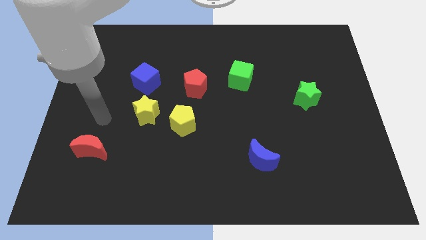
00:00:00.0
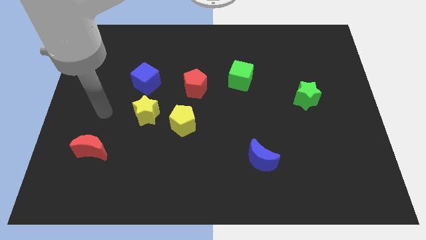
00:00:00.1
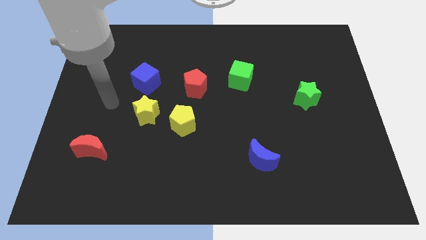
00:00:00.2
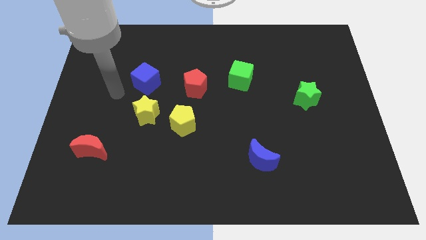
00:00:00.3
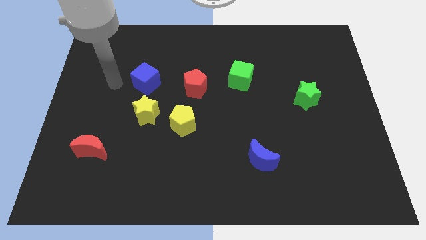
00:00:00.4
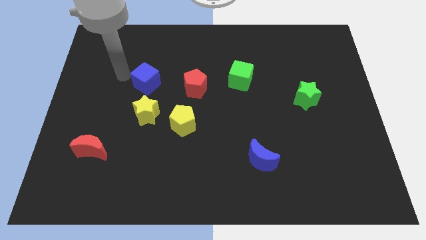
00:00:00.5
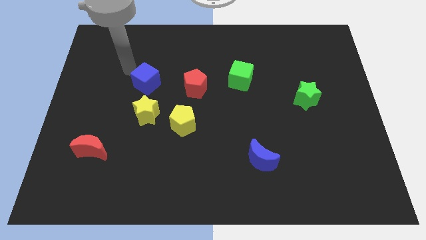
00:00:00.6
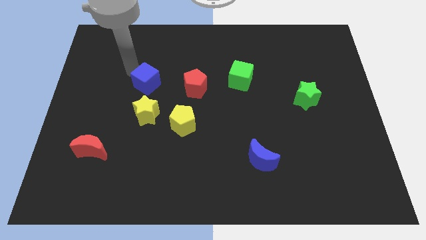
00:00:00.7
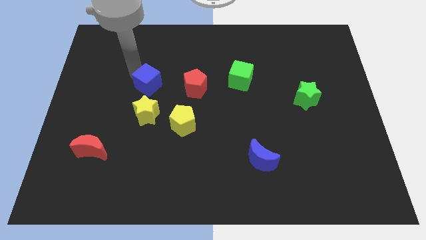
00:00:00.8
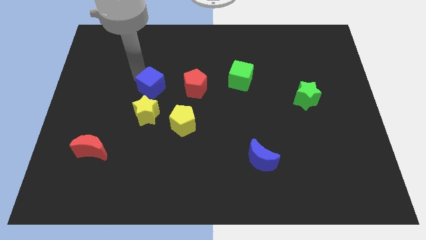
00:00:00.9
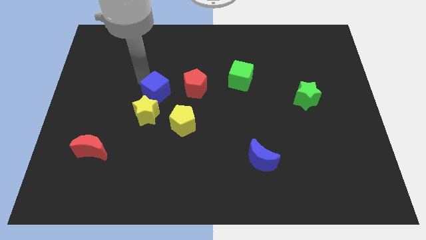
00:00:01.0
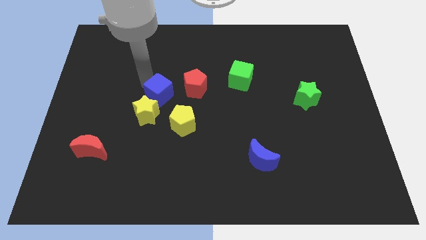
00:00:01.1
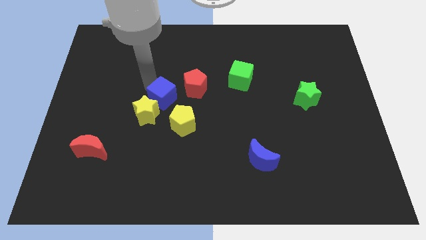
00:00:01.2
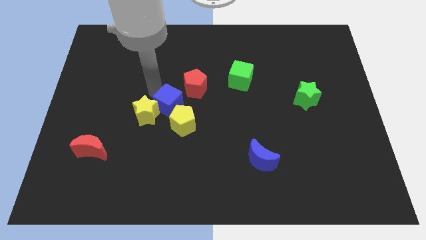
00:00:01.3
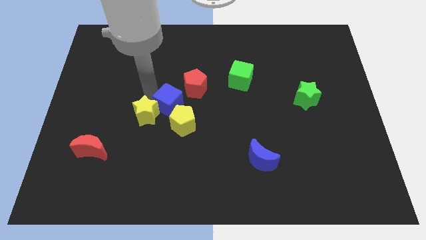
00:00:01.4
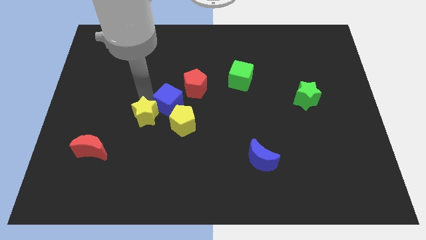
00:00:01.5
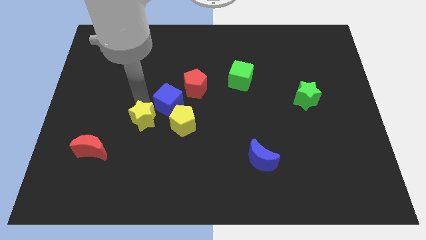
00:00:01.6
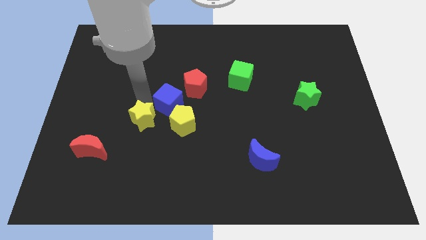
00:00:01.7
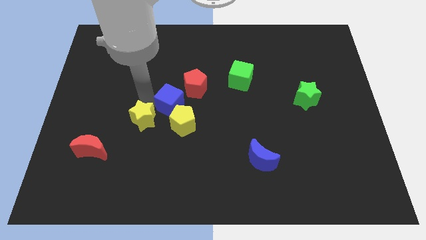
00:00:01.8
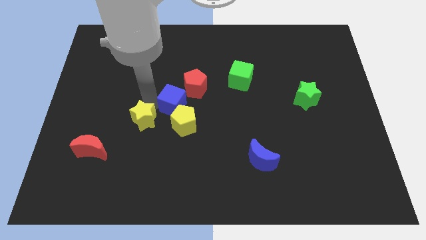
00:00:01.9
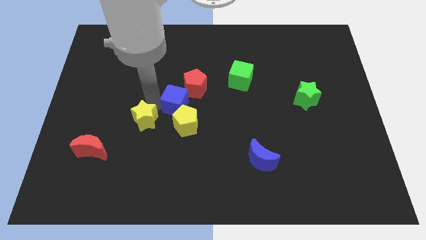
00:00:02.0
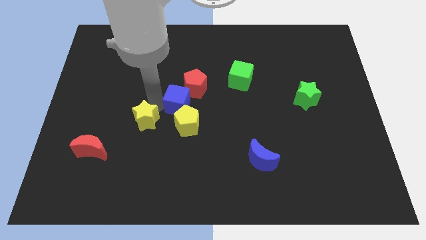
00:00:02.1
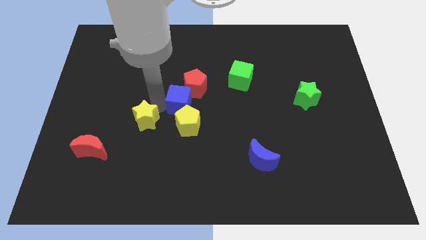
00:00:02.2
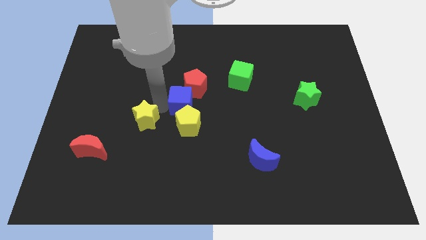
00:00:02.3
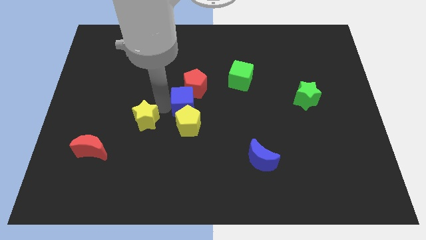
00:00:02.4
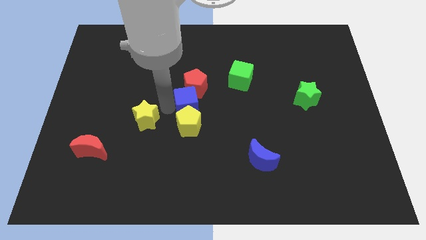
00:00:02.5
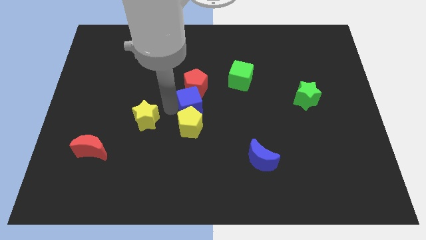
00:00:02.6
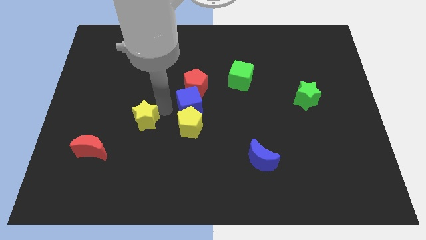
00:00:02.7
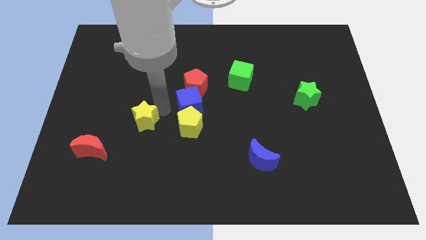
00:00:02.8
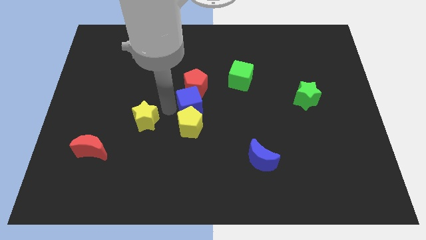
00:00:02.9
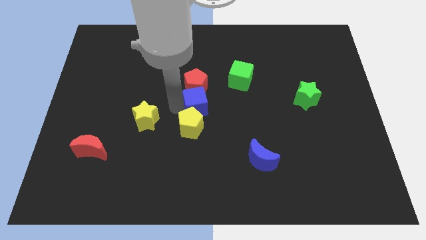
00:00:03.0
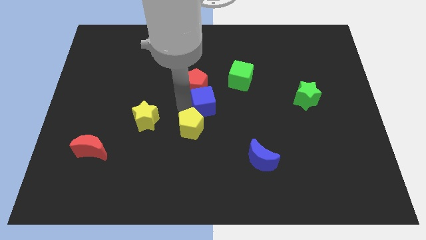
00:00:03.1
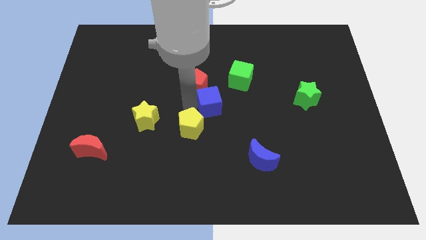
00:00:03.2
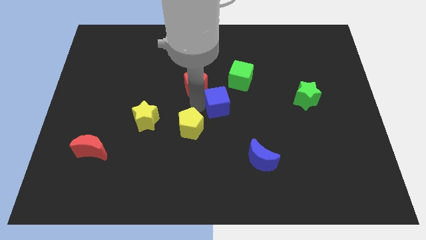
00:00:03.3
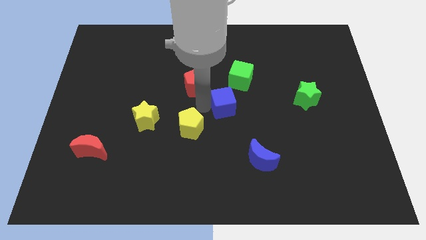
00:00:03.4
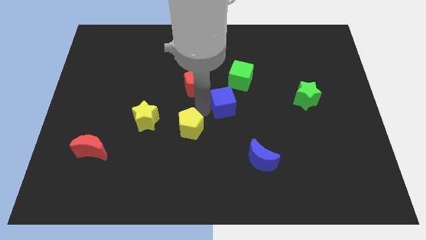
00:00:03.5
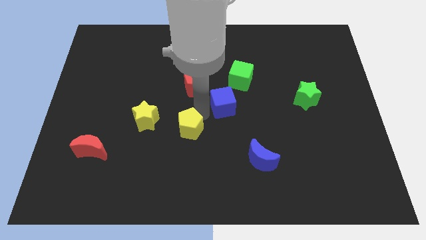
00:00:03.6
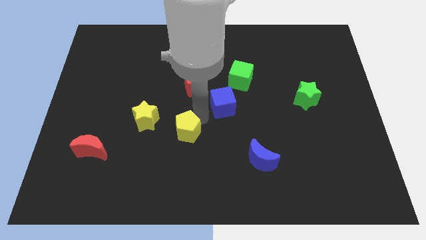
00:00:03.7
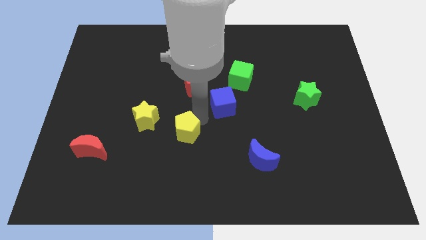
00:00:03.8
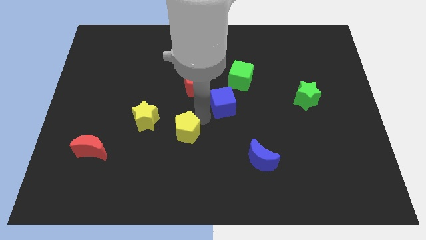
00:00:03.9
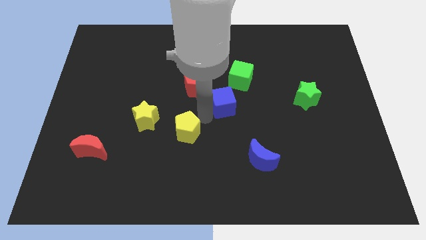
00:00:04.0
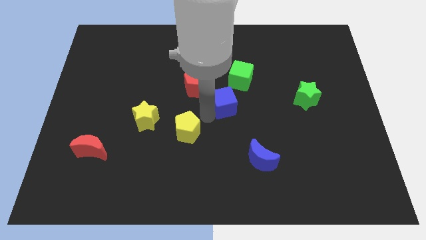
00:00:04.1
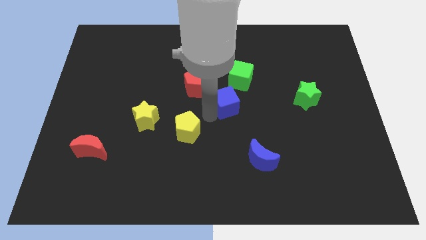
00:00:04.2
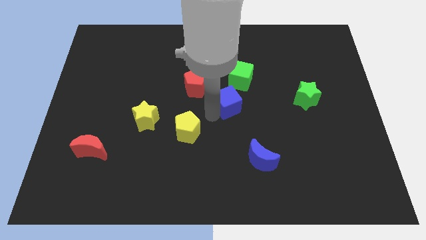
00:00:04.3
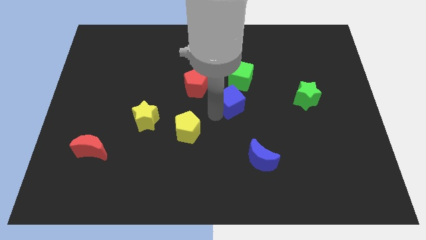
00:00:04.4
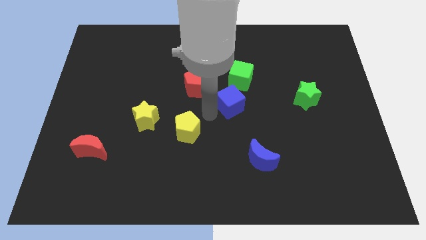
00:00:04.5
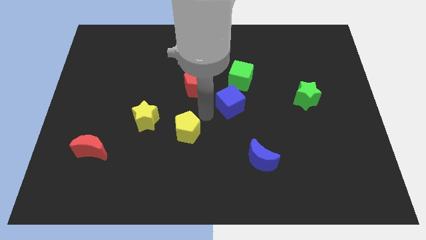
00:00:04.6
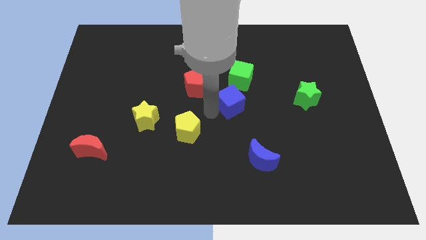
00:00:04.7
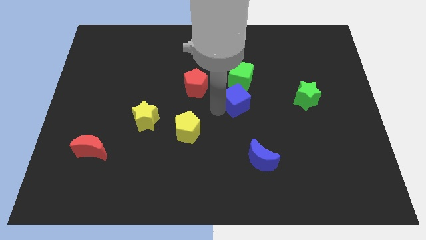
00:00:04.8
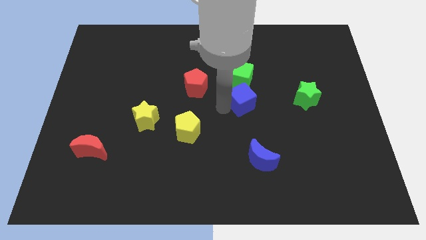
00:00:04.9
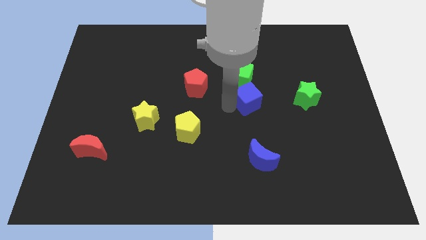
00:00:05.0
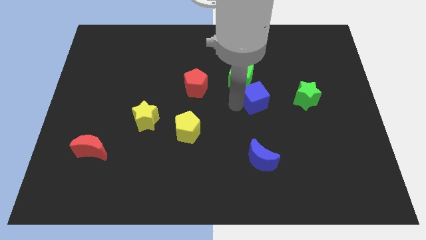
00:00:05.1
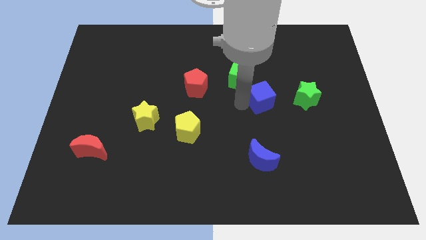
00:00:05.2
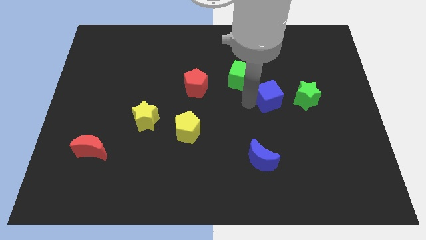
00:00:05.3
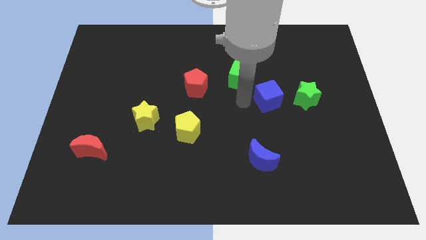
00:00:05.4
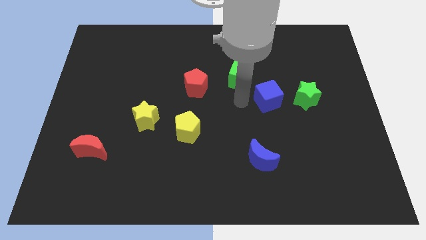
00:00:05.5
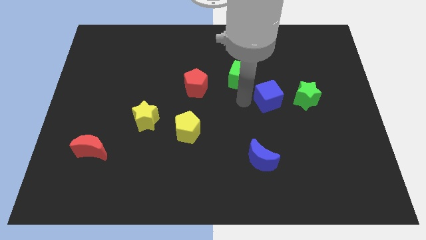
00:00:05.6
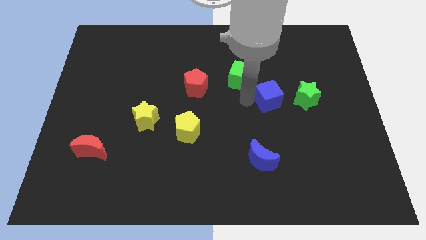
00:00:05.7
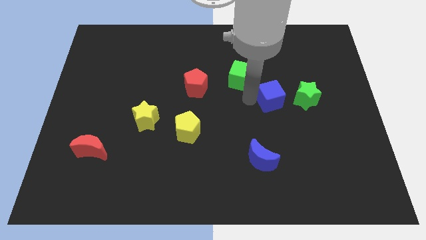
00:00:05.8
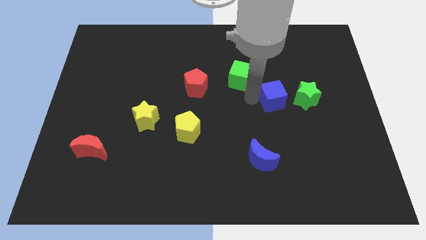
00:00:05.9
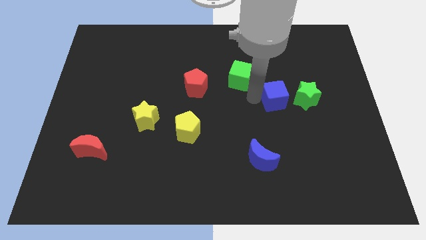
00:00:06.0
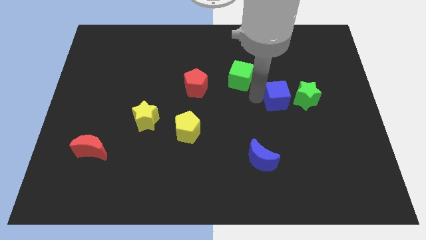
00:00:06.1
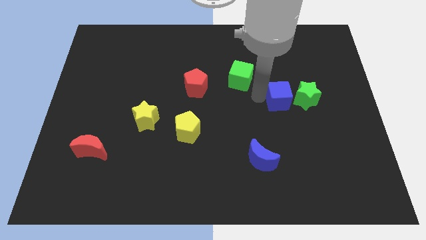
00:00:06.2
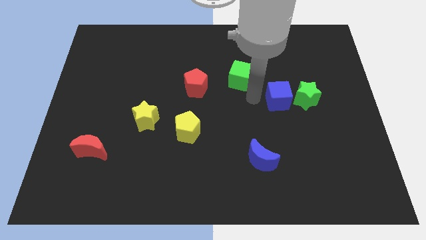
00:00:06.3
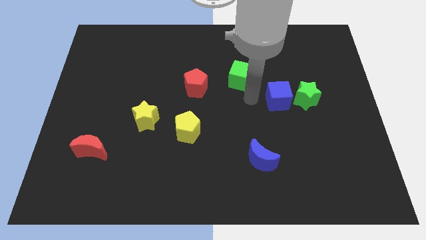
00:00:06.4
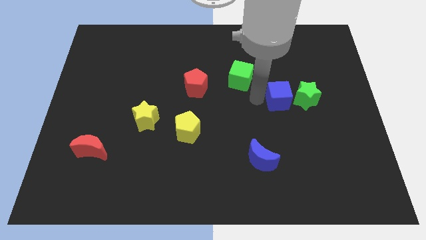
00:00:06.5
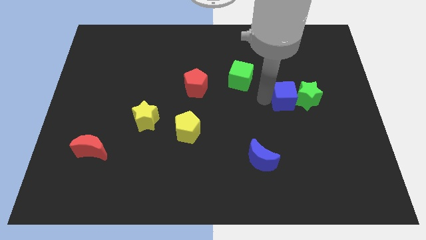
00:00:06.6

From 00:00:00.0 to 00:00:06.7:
put the blue cube close to the green star

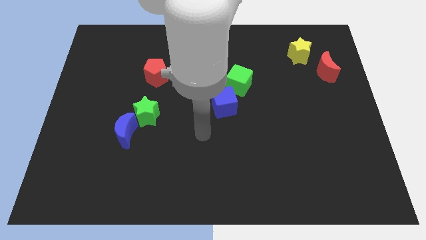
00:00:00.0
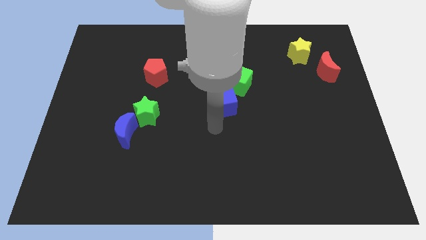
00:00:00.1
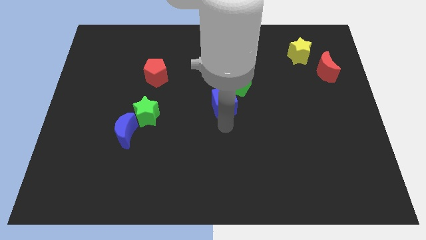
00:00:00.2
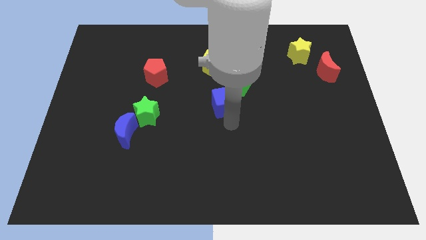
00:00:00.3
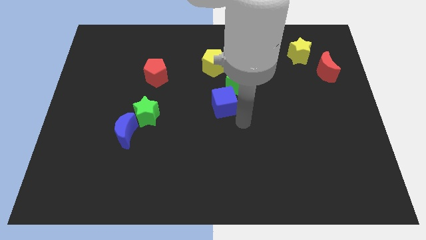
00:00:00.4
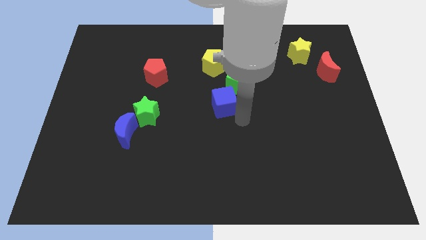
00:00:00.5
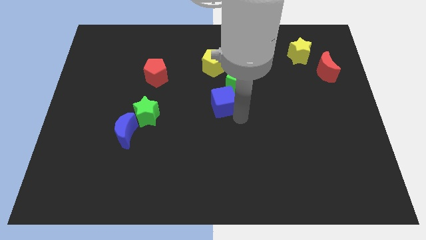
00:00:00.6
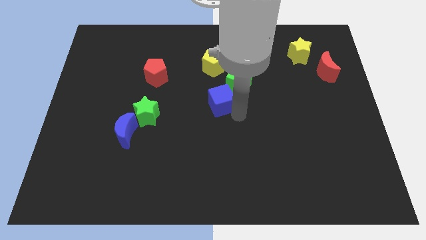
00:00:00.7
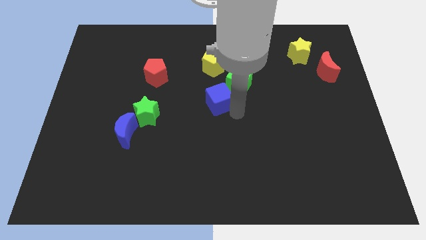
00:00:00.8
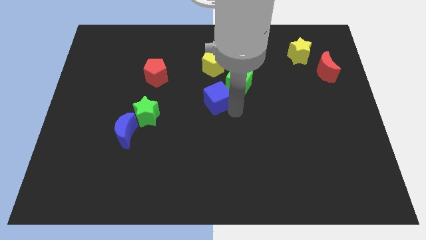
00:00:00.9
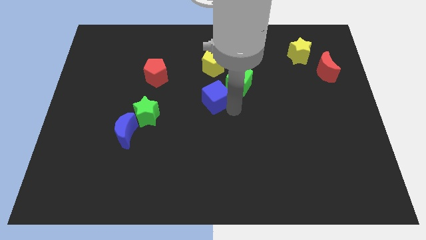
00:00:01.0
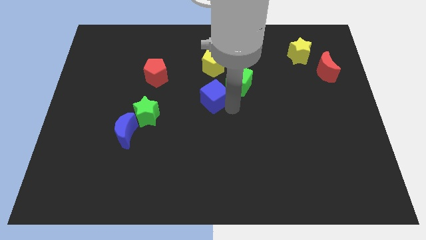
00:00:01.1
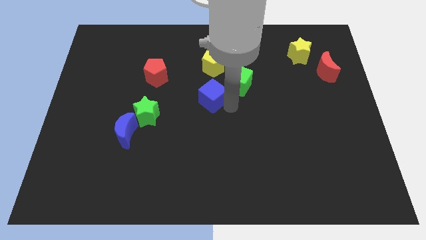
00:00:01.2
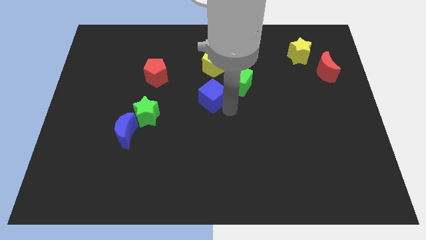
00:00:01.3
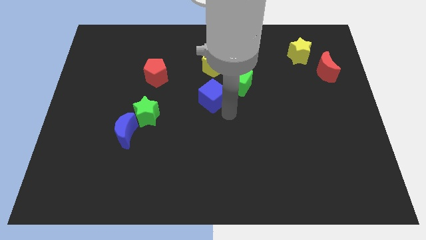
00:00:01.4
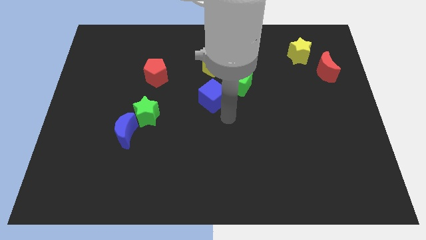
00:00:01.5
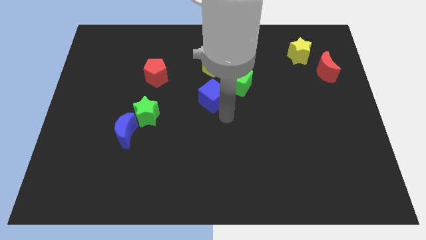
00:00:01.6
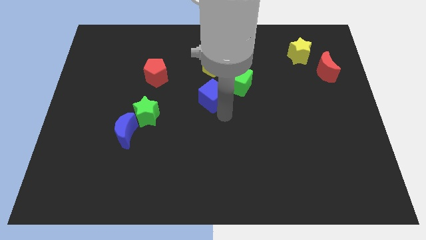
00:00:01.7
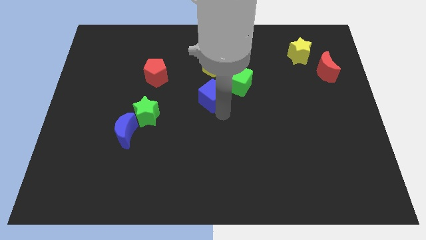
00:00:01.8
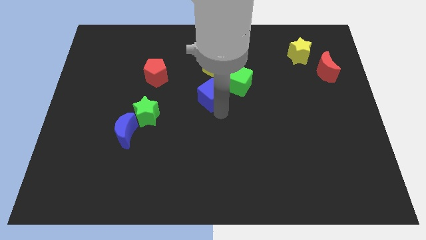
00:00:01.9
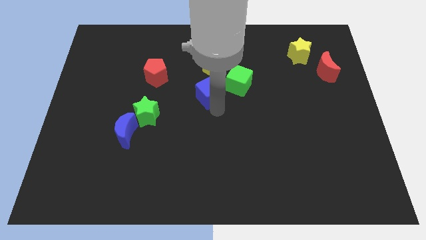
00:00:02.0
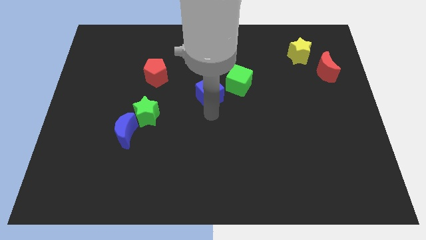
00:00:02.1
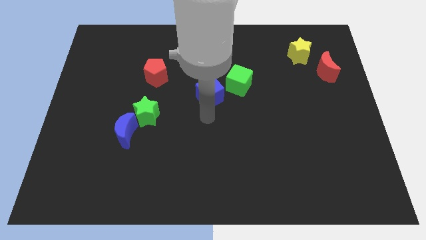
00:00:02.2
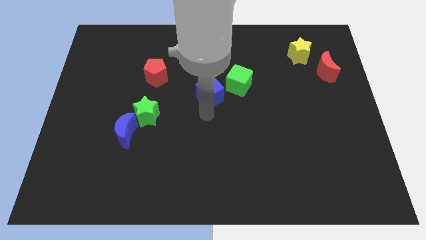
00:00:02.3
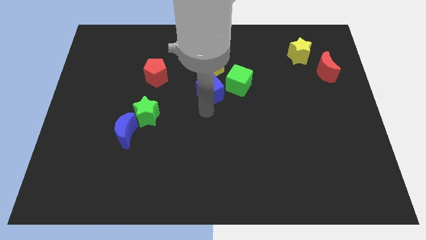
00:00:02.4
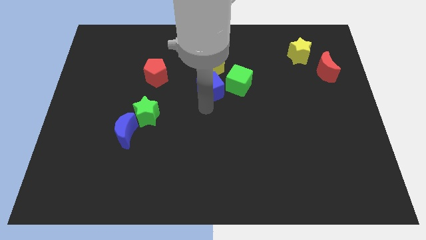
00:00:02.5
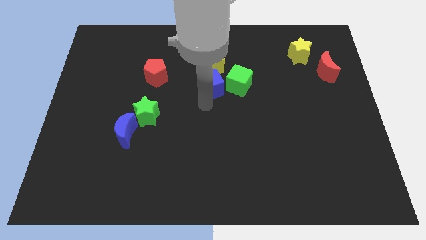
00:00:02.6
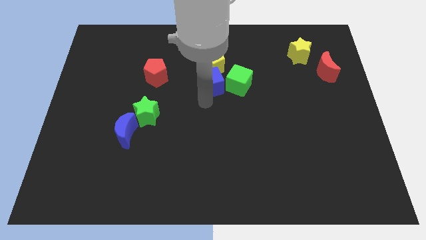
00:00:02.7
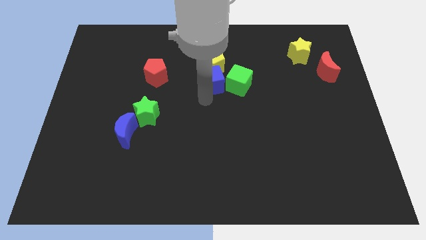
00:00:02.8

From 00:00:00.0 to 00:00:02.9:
push the blue cube next to the yellow pentagon
